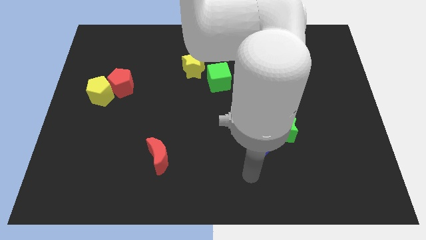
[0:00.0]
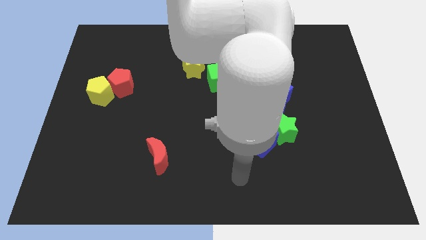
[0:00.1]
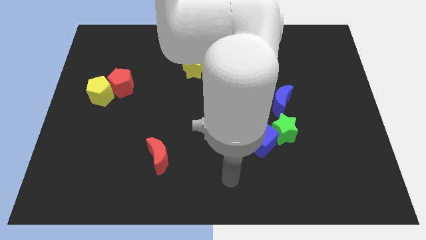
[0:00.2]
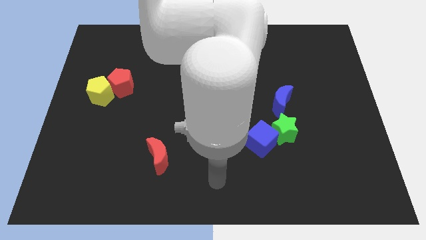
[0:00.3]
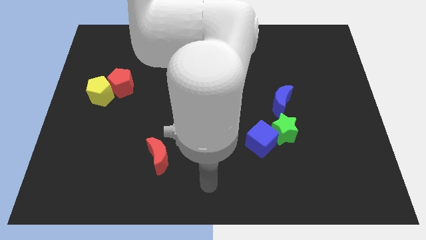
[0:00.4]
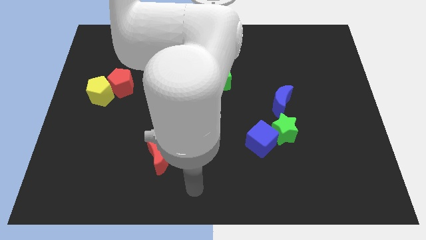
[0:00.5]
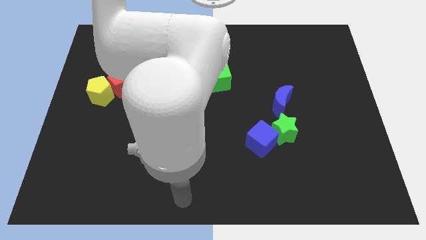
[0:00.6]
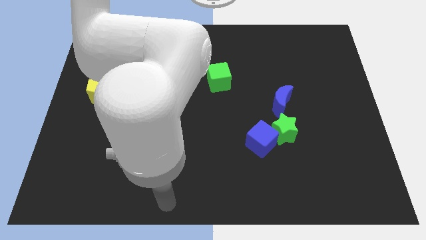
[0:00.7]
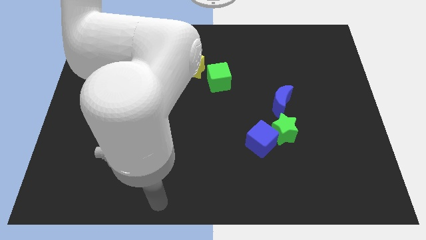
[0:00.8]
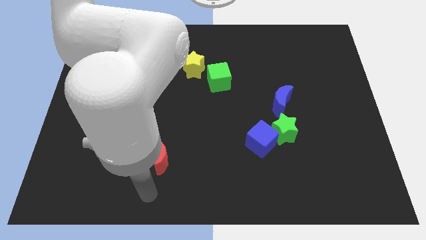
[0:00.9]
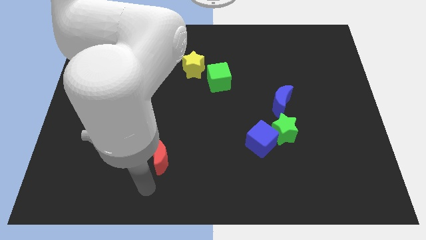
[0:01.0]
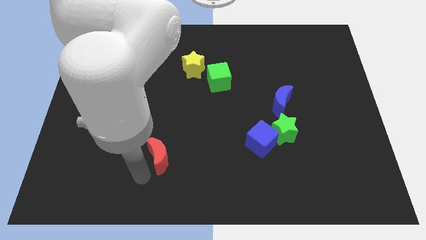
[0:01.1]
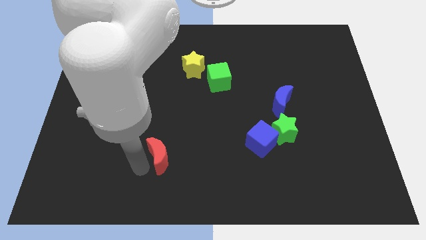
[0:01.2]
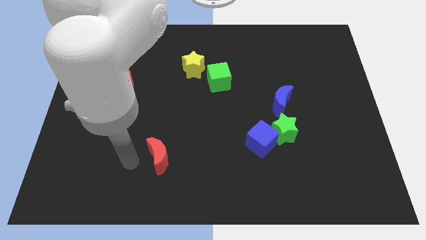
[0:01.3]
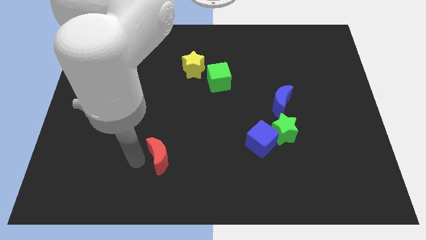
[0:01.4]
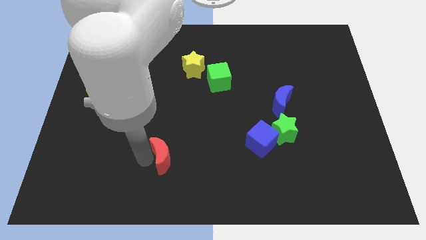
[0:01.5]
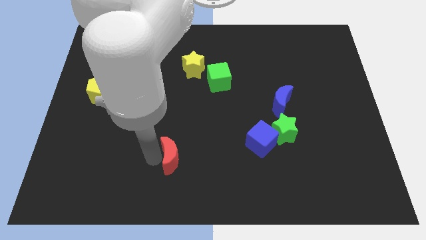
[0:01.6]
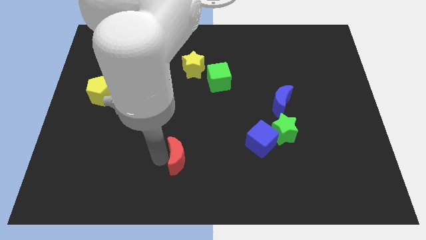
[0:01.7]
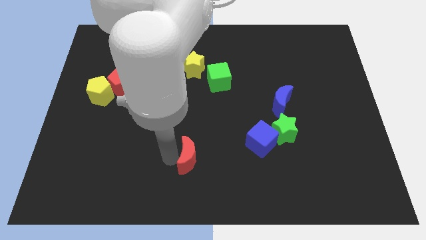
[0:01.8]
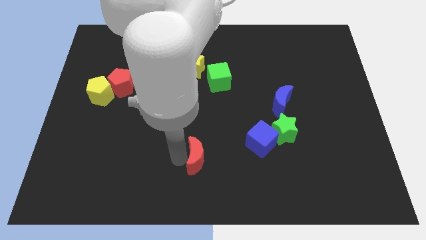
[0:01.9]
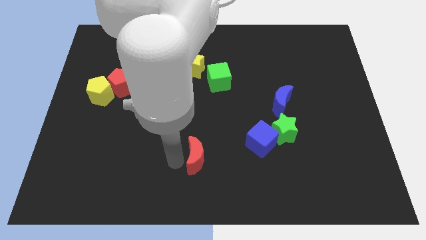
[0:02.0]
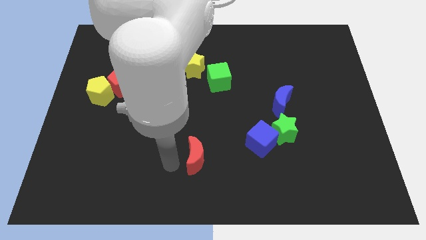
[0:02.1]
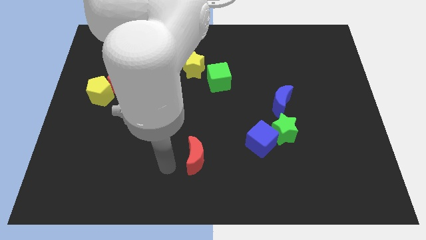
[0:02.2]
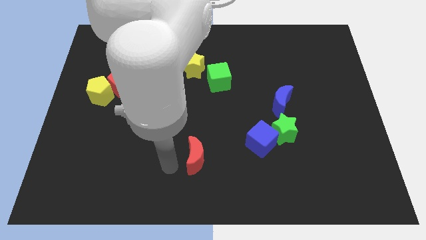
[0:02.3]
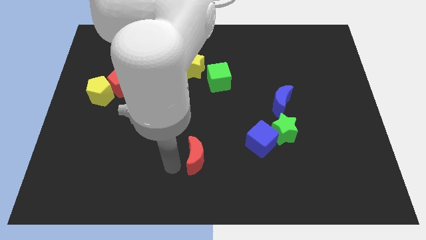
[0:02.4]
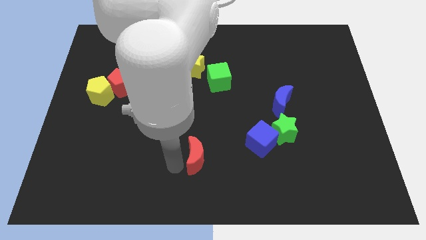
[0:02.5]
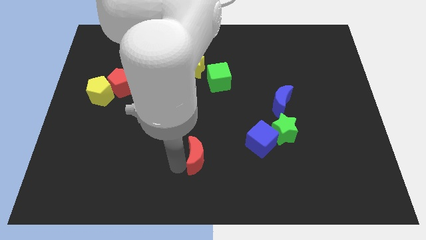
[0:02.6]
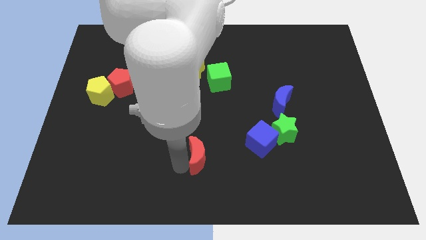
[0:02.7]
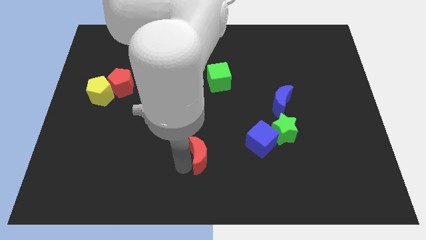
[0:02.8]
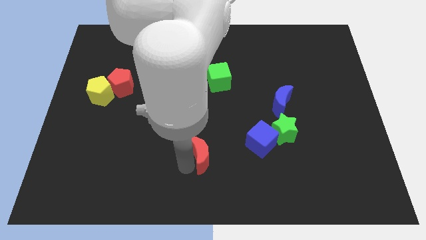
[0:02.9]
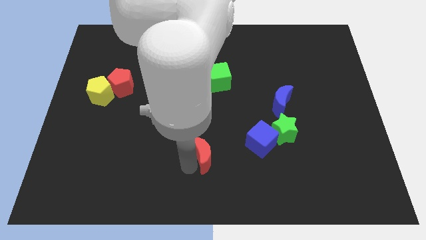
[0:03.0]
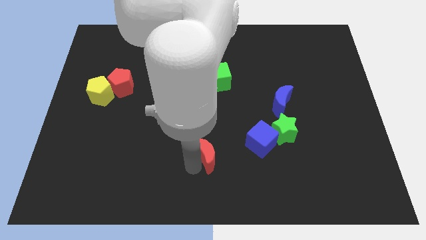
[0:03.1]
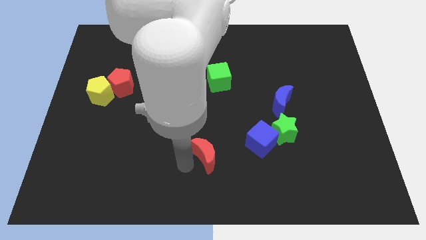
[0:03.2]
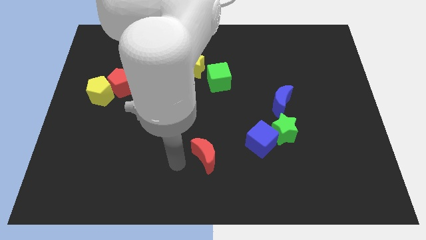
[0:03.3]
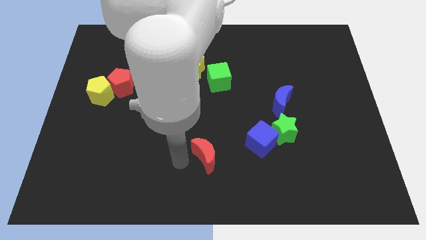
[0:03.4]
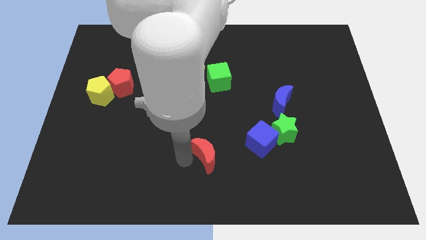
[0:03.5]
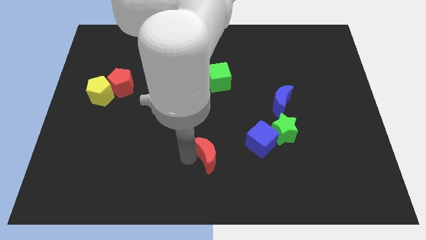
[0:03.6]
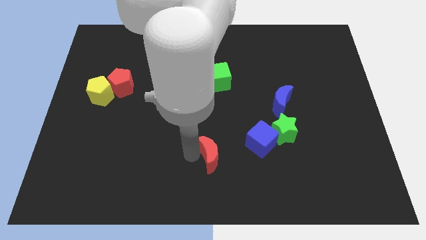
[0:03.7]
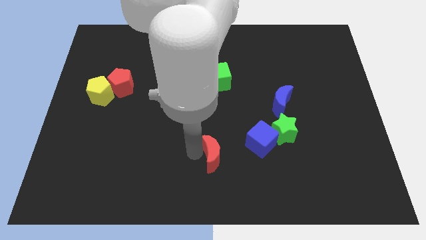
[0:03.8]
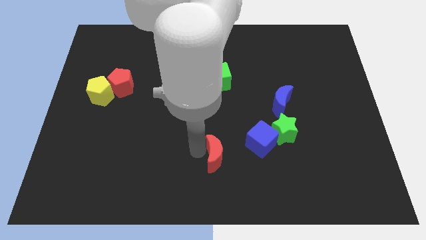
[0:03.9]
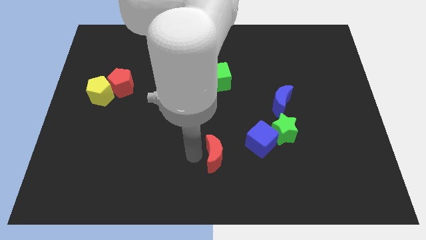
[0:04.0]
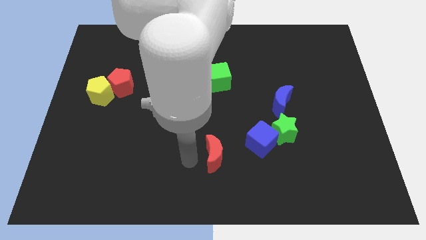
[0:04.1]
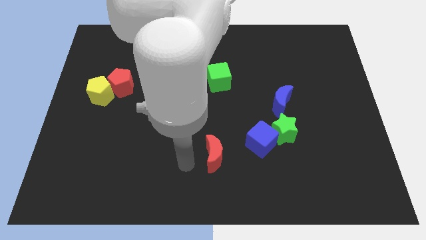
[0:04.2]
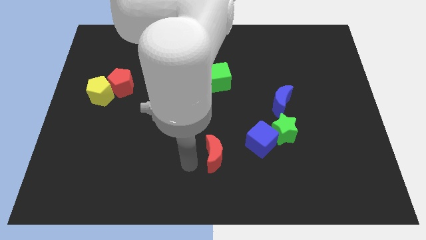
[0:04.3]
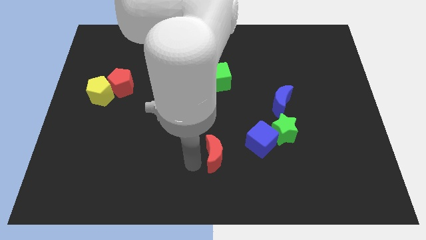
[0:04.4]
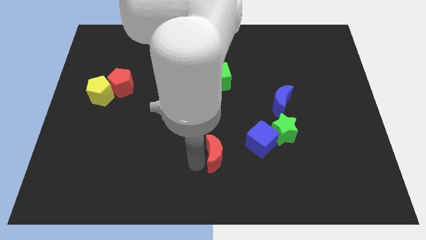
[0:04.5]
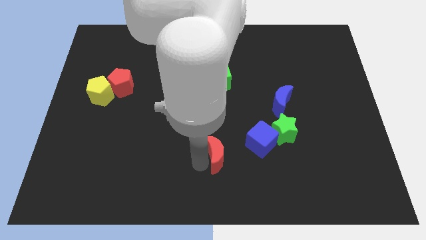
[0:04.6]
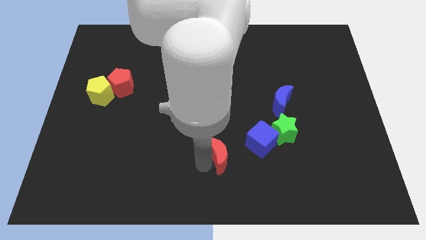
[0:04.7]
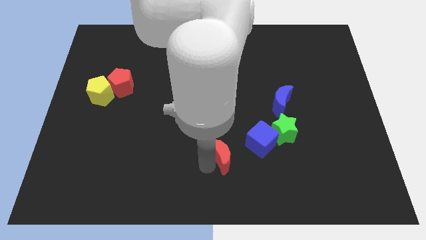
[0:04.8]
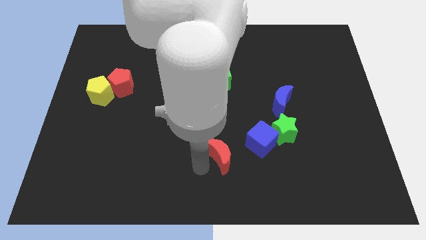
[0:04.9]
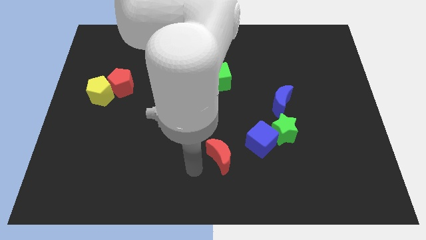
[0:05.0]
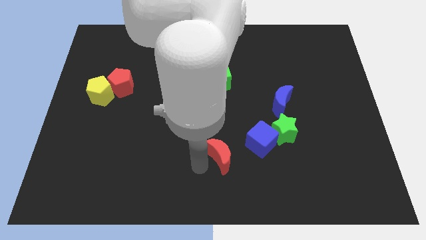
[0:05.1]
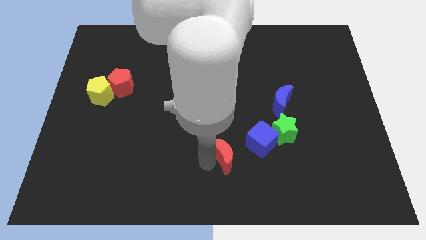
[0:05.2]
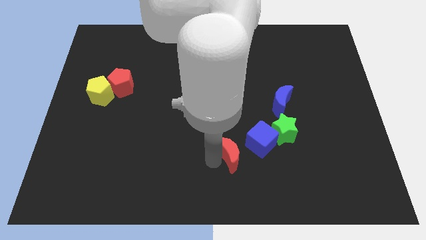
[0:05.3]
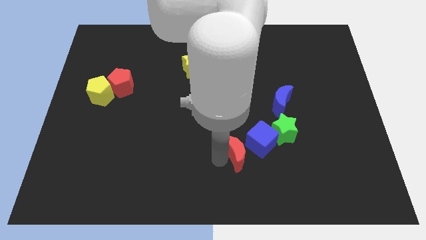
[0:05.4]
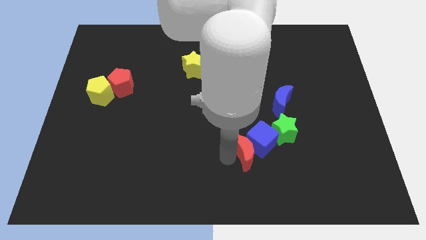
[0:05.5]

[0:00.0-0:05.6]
move the red moon close to the blue cube
